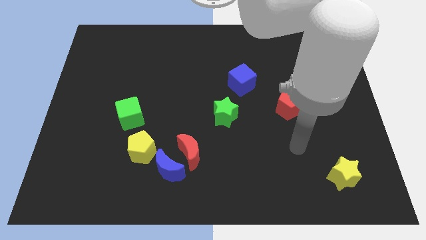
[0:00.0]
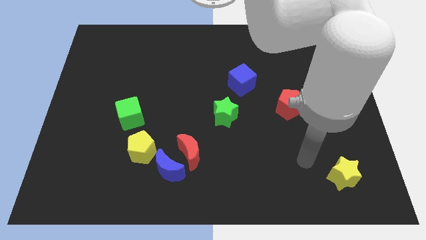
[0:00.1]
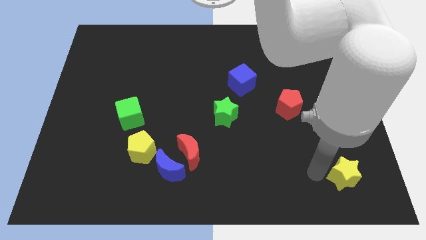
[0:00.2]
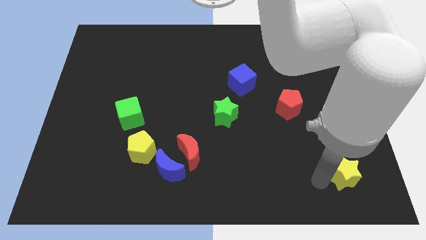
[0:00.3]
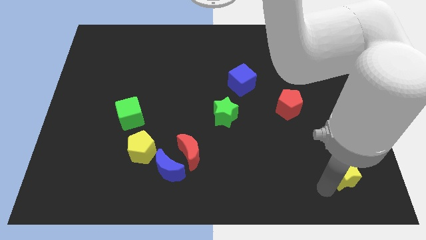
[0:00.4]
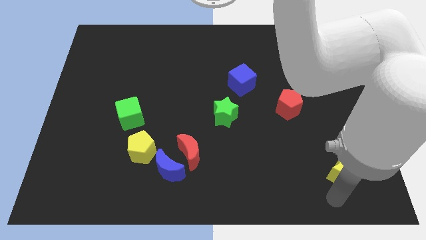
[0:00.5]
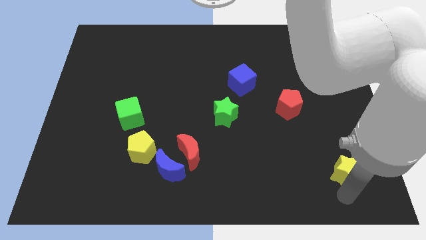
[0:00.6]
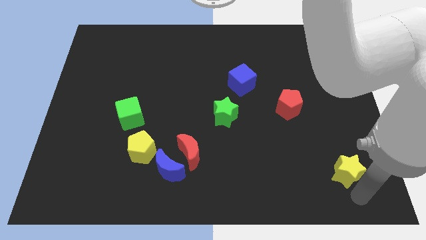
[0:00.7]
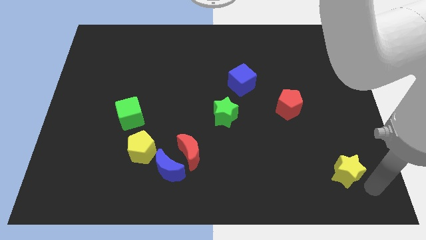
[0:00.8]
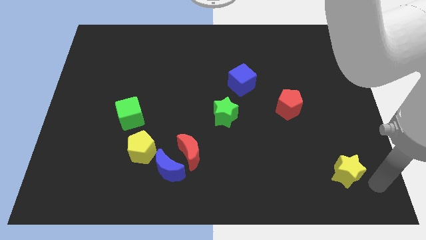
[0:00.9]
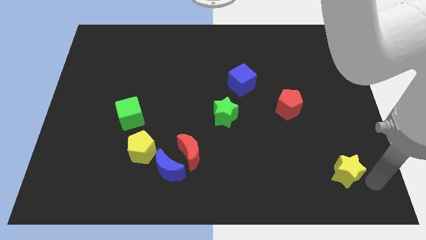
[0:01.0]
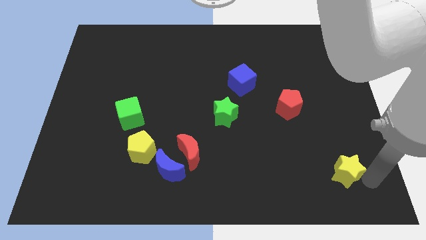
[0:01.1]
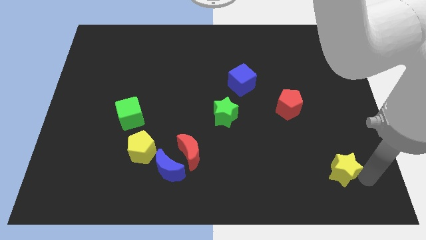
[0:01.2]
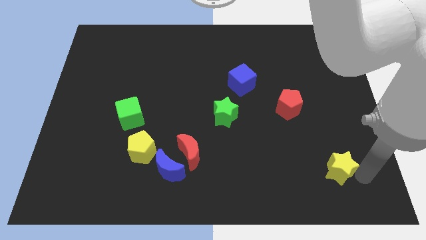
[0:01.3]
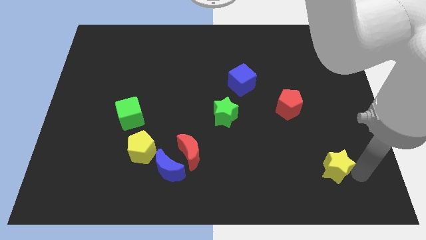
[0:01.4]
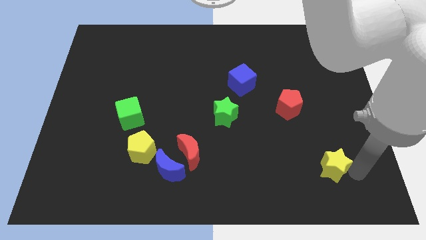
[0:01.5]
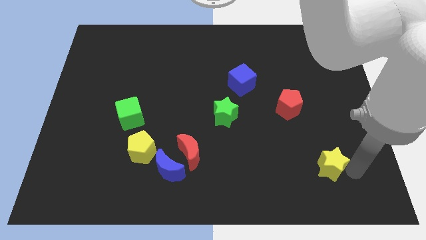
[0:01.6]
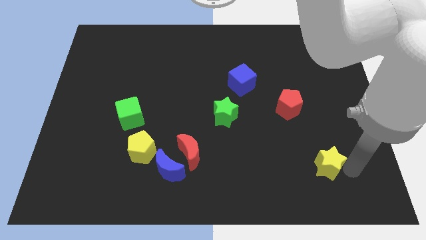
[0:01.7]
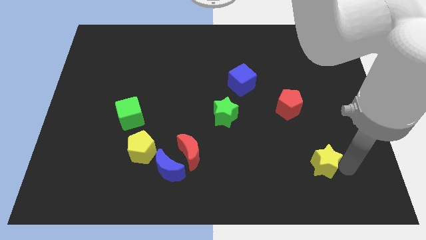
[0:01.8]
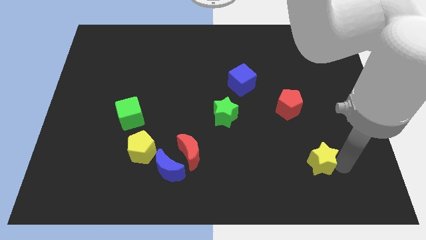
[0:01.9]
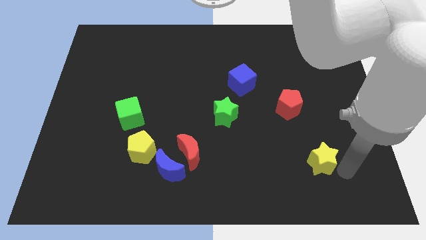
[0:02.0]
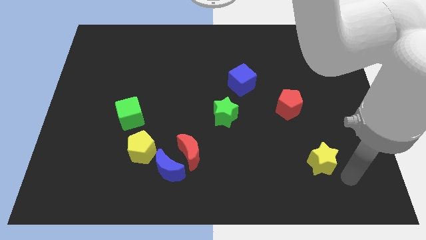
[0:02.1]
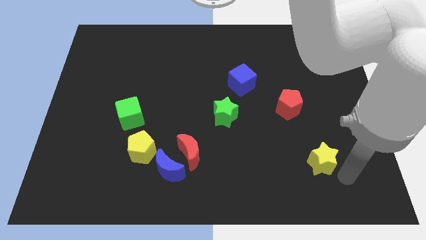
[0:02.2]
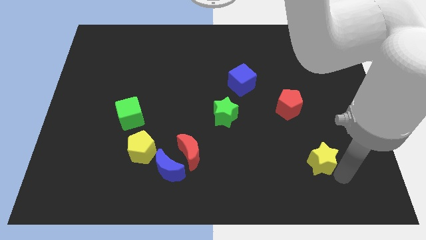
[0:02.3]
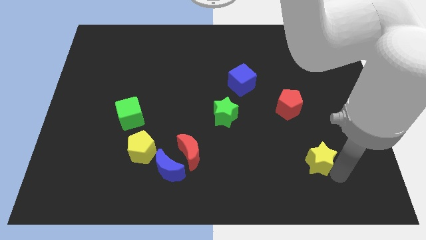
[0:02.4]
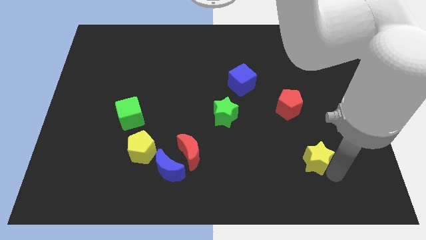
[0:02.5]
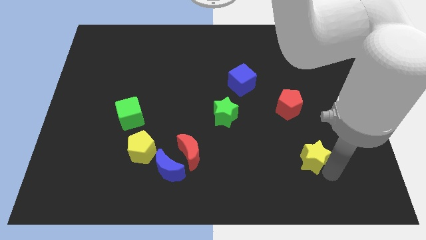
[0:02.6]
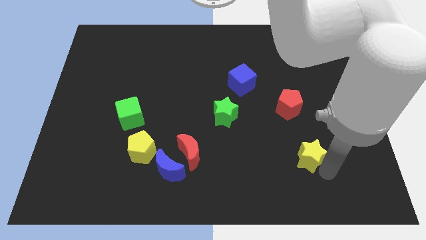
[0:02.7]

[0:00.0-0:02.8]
push the yellow star slightly diagonally upwards and left

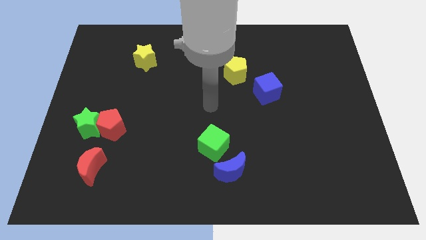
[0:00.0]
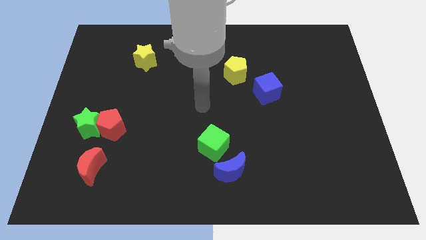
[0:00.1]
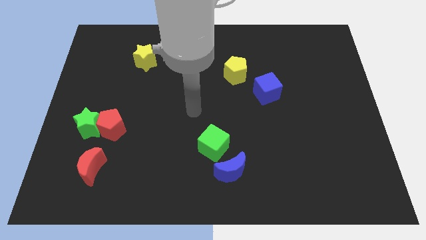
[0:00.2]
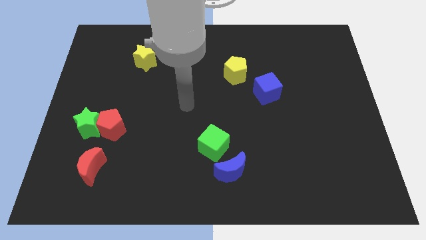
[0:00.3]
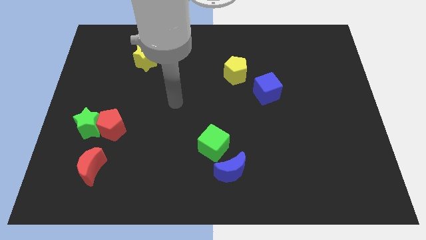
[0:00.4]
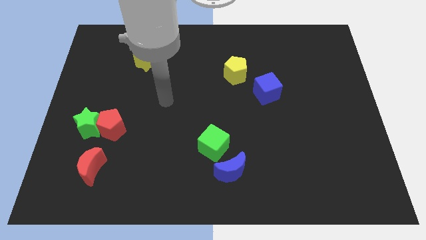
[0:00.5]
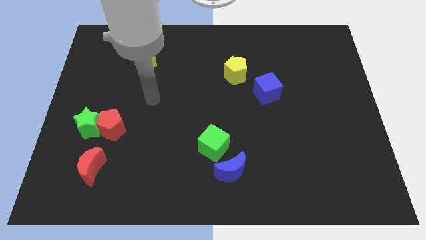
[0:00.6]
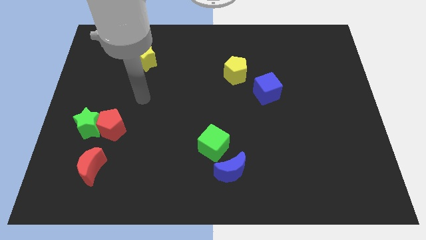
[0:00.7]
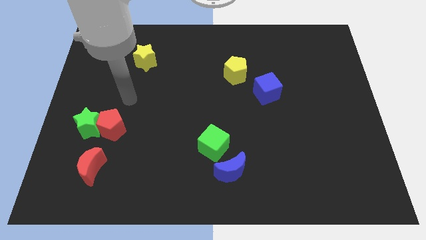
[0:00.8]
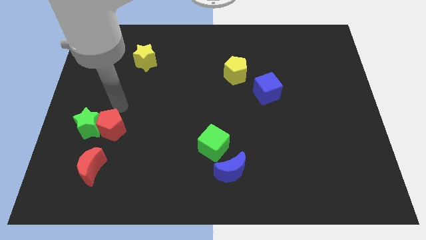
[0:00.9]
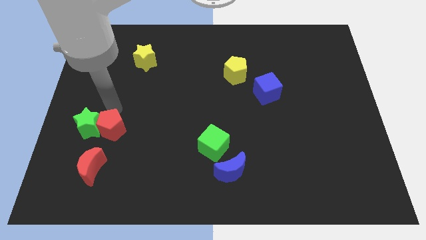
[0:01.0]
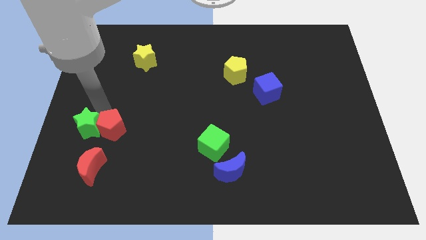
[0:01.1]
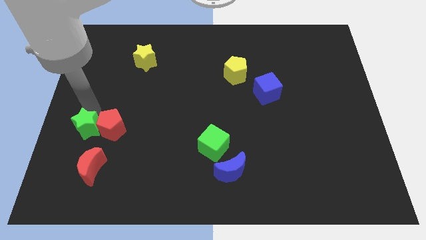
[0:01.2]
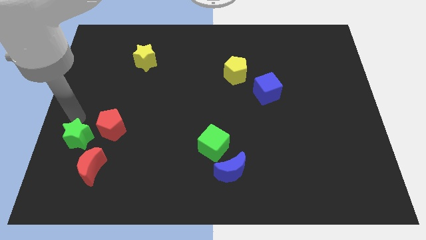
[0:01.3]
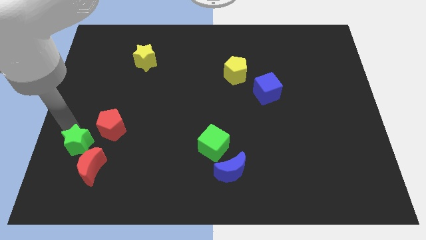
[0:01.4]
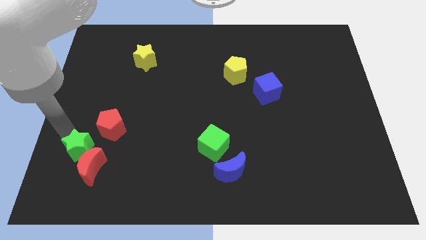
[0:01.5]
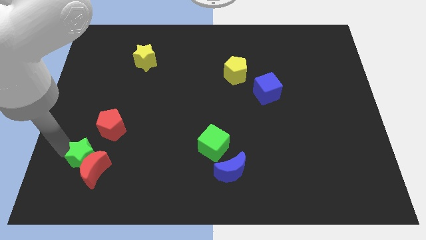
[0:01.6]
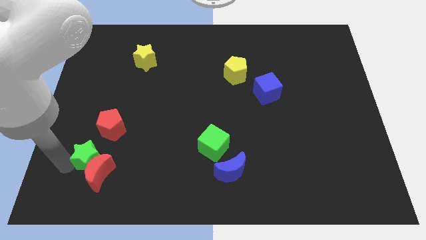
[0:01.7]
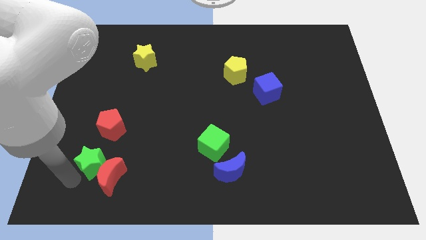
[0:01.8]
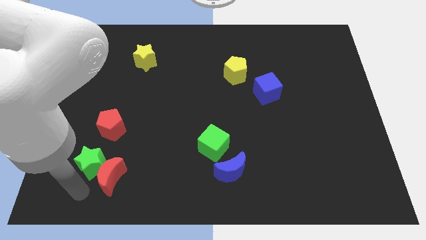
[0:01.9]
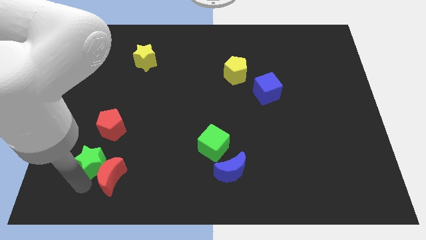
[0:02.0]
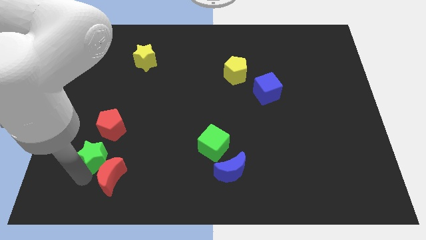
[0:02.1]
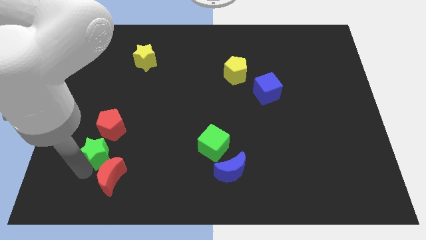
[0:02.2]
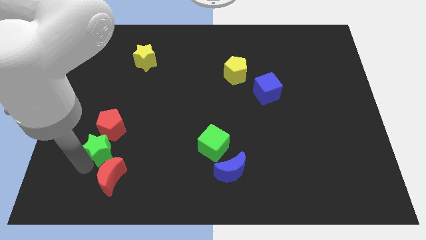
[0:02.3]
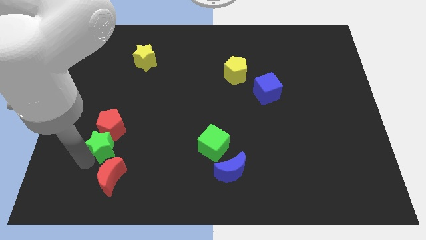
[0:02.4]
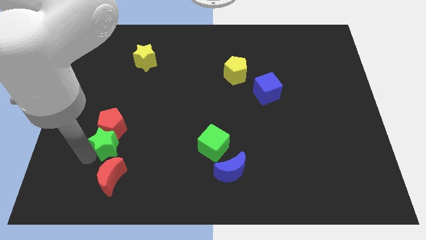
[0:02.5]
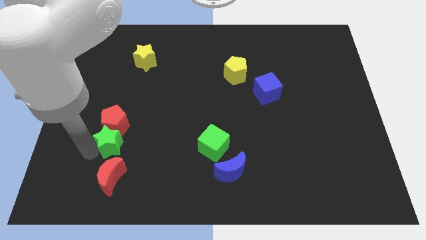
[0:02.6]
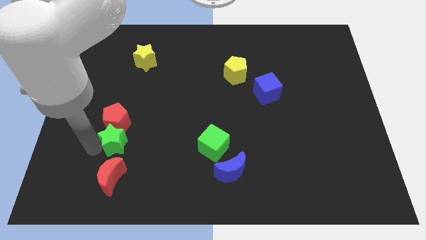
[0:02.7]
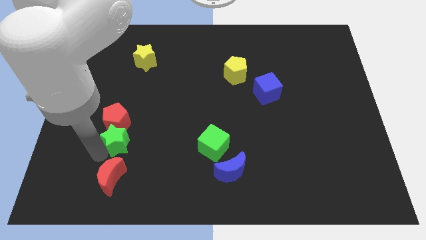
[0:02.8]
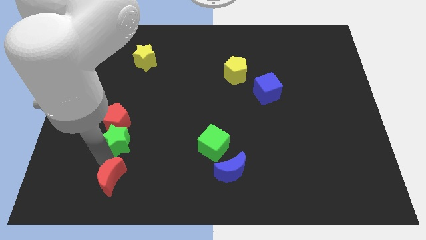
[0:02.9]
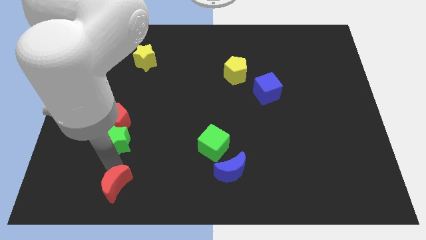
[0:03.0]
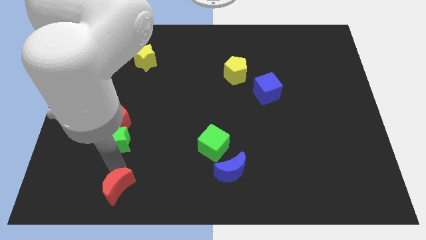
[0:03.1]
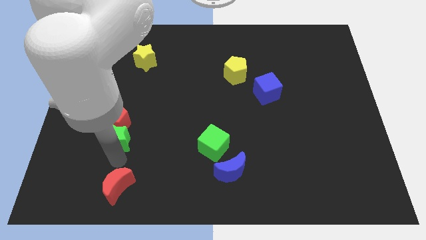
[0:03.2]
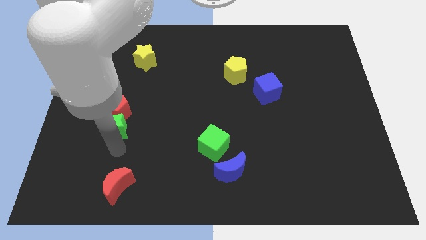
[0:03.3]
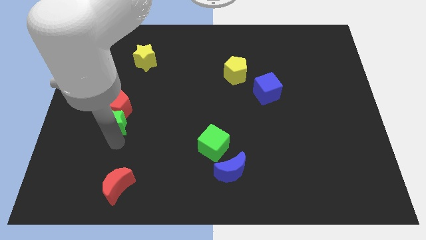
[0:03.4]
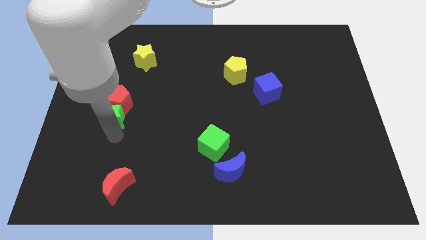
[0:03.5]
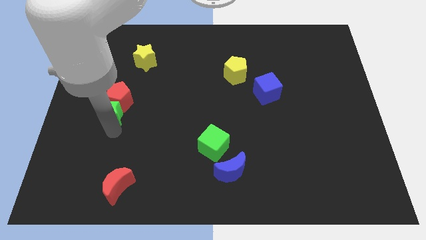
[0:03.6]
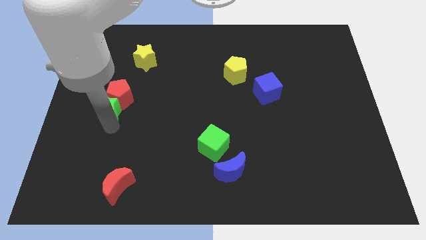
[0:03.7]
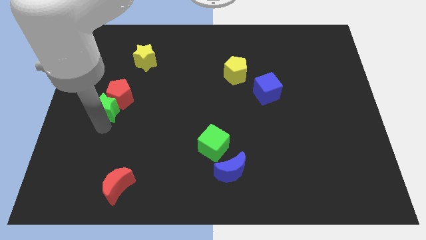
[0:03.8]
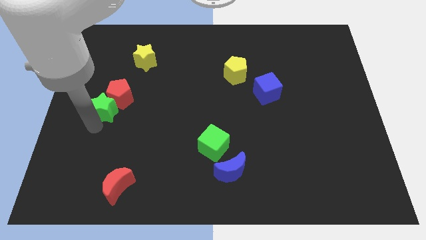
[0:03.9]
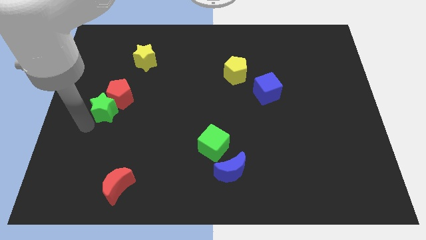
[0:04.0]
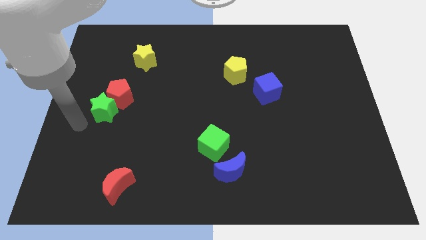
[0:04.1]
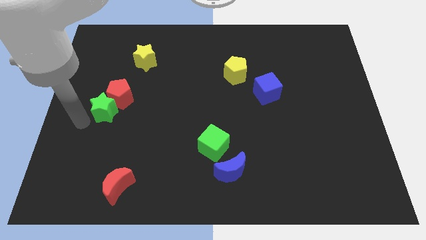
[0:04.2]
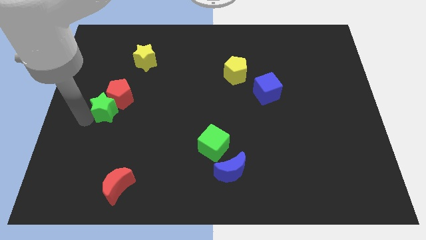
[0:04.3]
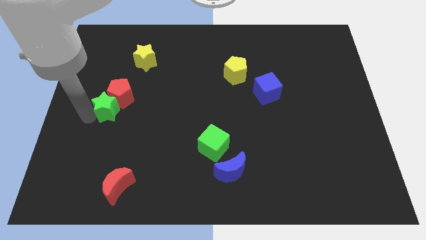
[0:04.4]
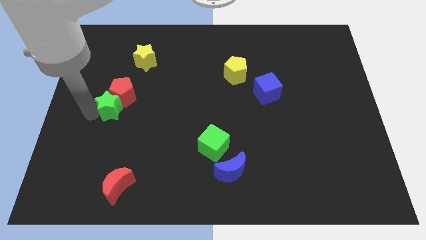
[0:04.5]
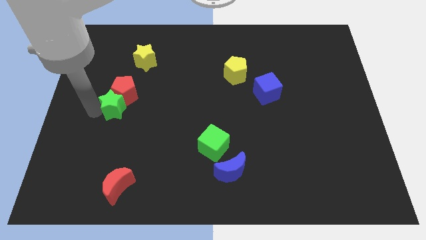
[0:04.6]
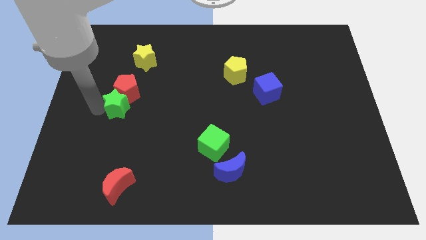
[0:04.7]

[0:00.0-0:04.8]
move the green star up and to the right diagonally a little
